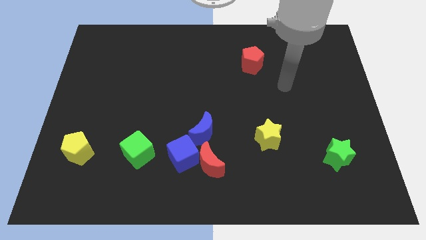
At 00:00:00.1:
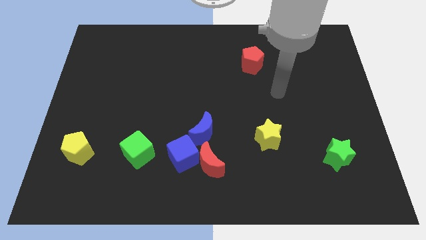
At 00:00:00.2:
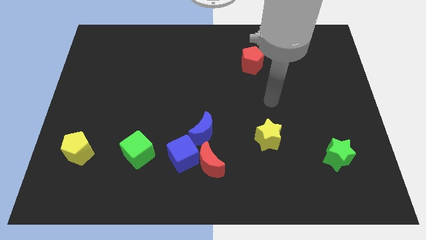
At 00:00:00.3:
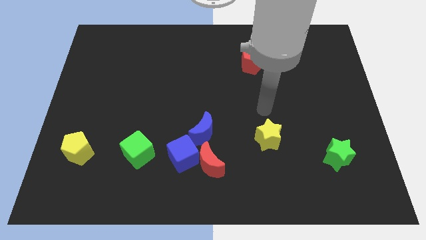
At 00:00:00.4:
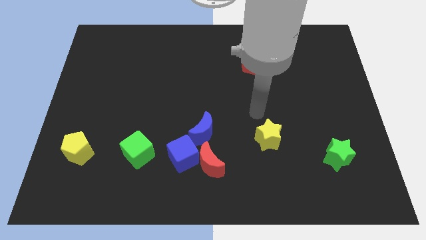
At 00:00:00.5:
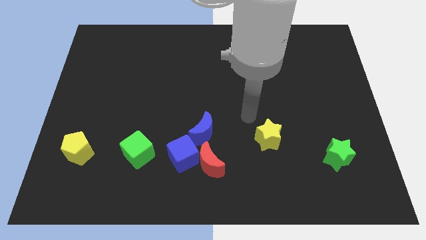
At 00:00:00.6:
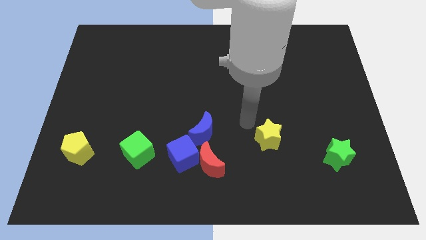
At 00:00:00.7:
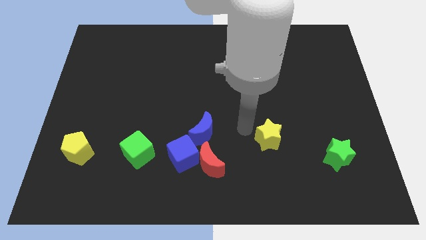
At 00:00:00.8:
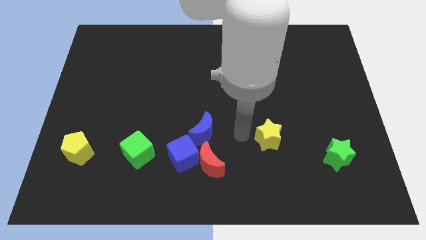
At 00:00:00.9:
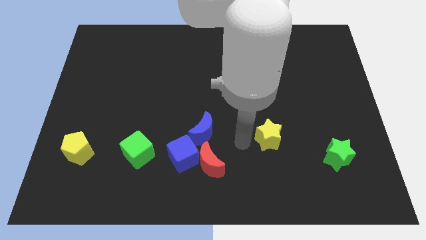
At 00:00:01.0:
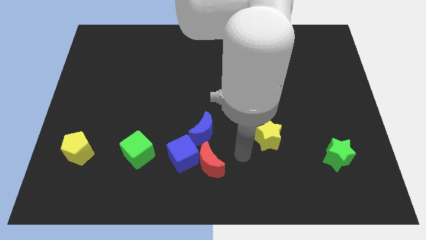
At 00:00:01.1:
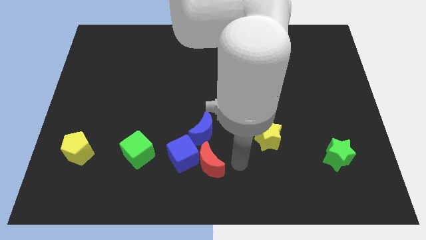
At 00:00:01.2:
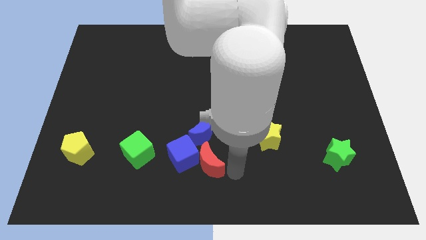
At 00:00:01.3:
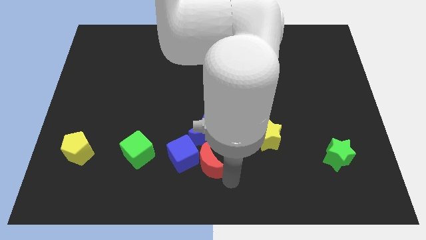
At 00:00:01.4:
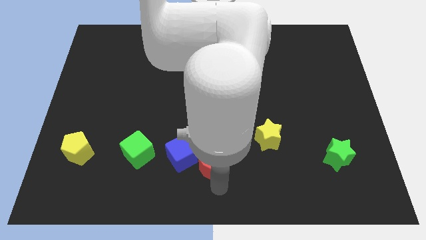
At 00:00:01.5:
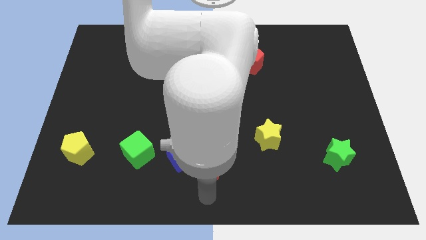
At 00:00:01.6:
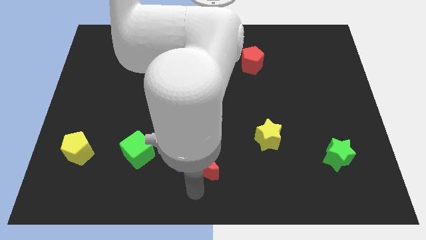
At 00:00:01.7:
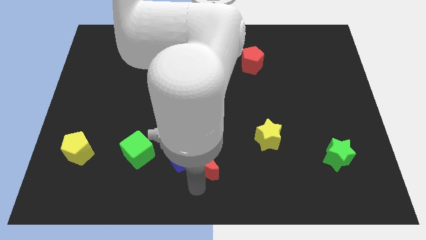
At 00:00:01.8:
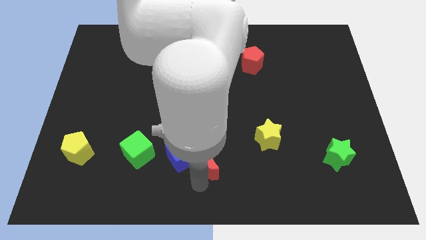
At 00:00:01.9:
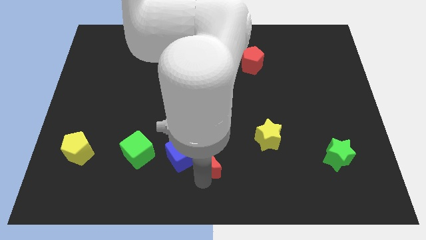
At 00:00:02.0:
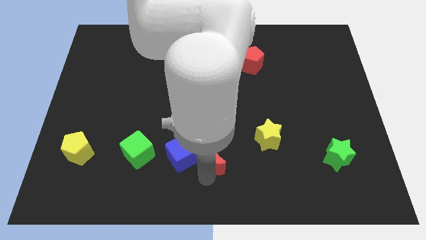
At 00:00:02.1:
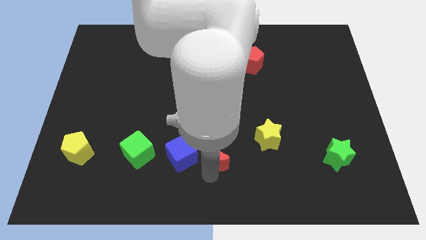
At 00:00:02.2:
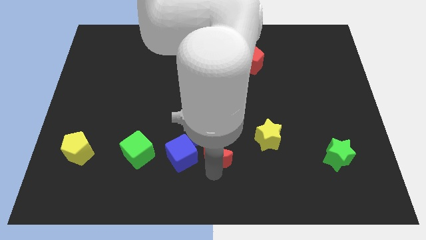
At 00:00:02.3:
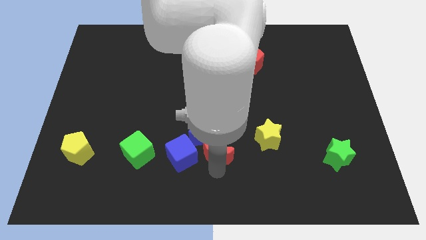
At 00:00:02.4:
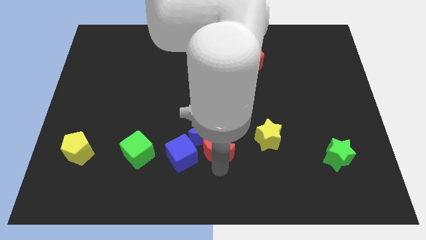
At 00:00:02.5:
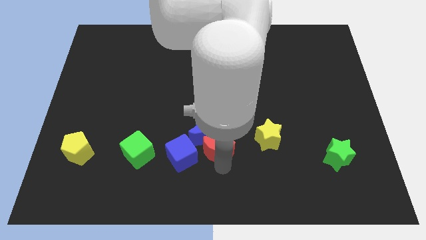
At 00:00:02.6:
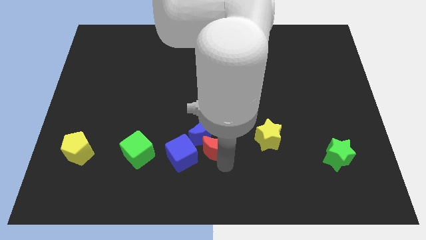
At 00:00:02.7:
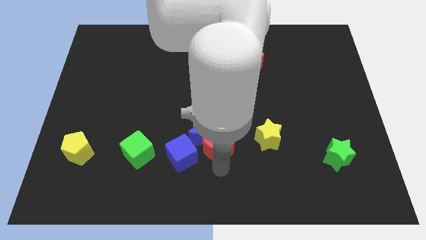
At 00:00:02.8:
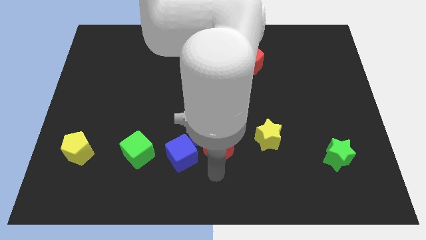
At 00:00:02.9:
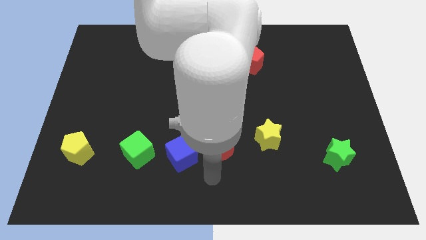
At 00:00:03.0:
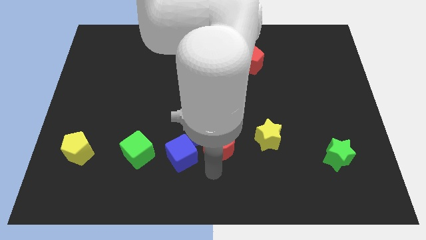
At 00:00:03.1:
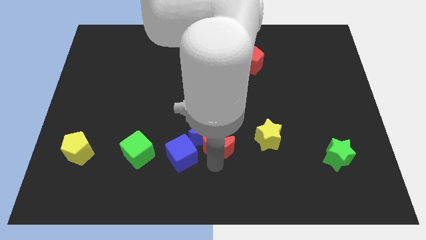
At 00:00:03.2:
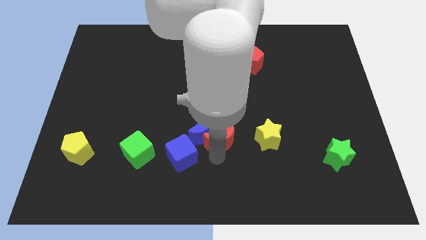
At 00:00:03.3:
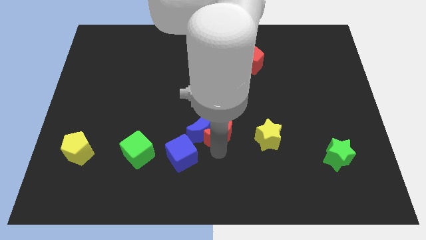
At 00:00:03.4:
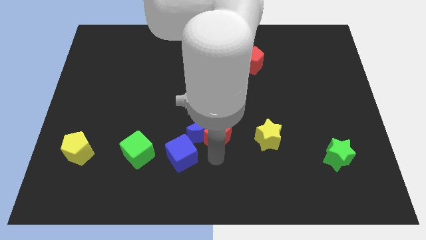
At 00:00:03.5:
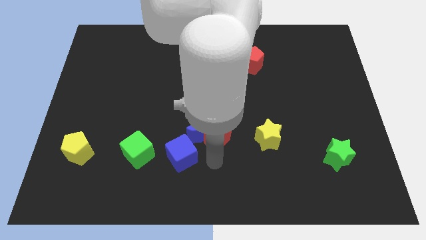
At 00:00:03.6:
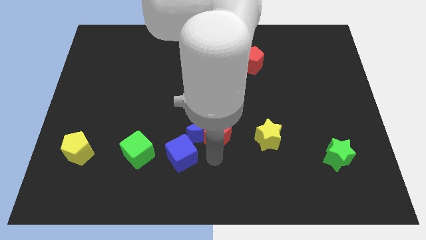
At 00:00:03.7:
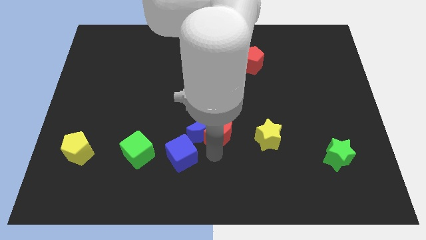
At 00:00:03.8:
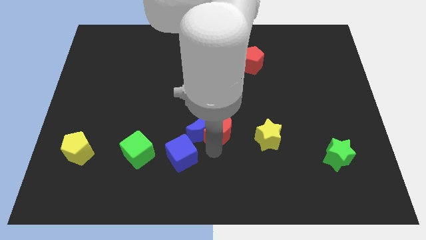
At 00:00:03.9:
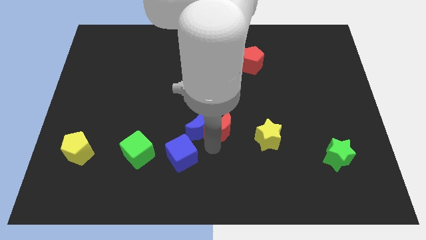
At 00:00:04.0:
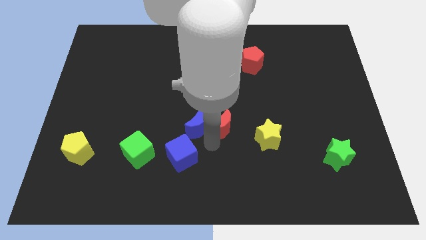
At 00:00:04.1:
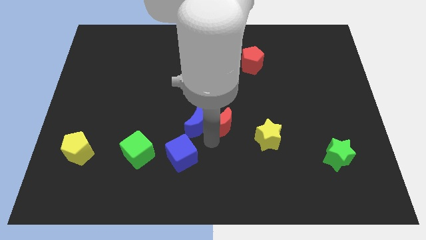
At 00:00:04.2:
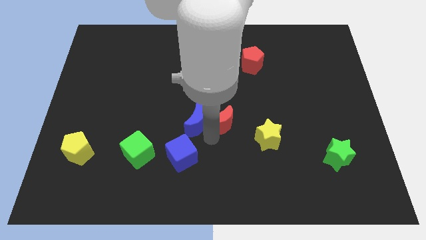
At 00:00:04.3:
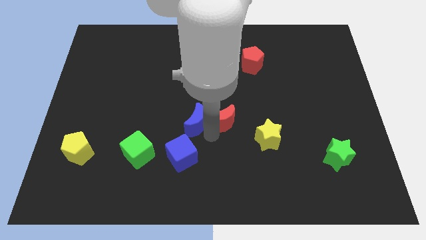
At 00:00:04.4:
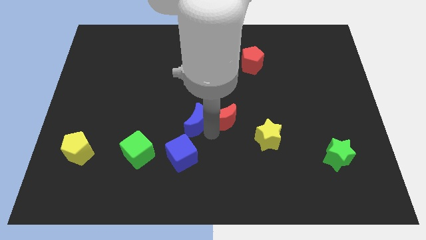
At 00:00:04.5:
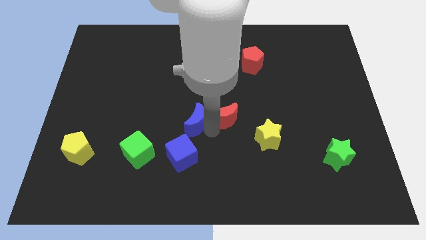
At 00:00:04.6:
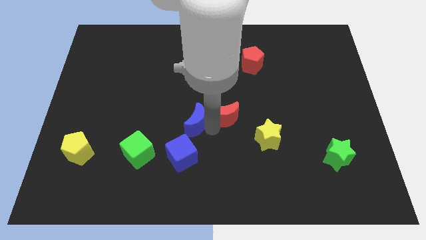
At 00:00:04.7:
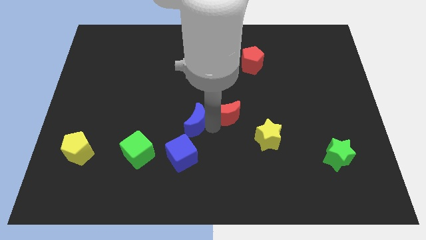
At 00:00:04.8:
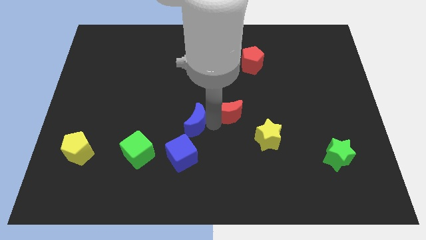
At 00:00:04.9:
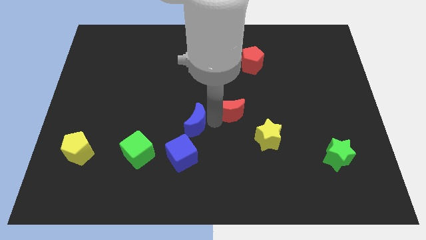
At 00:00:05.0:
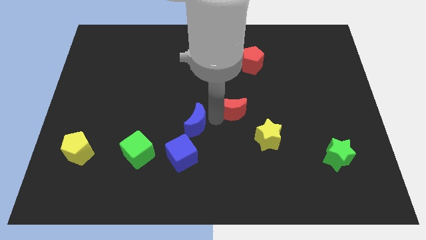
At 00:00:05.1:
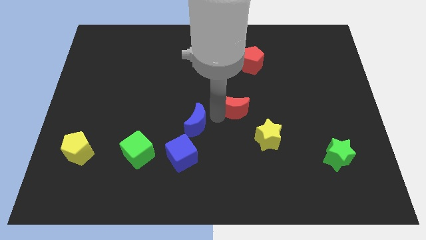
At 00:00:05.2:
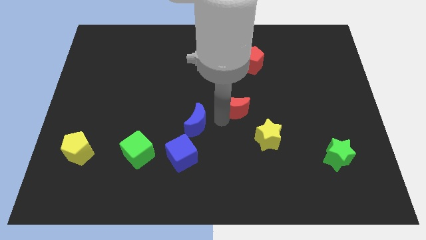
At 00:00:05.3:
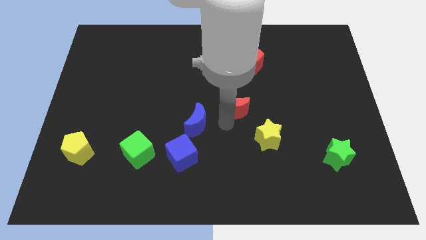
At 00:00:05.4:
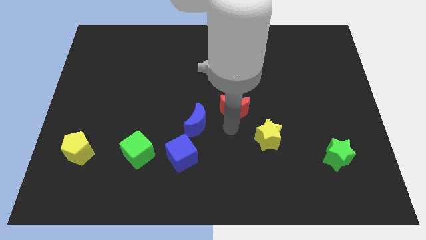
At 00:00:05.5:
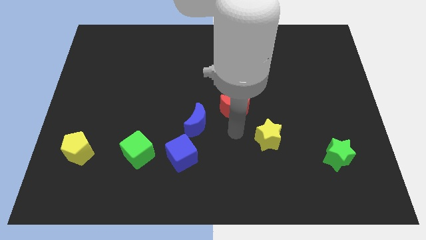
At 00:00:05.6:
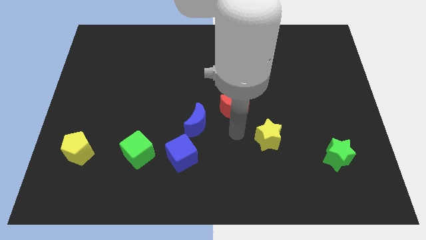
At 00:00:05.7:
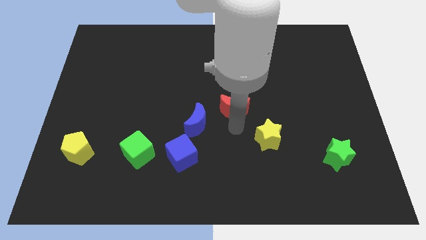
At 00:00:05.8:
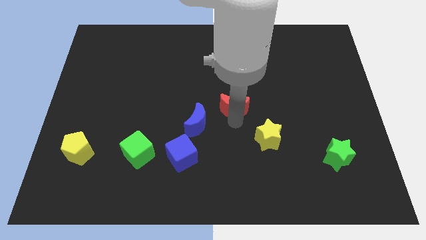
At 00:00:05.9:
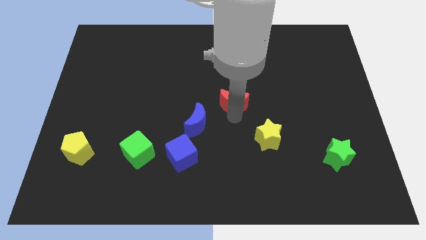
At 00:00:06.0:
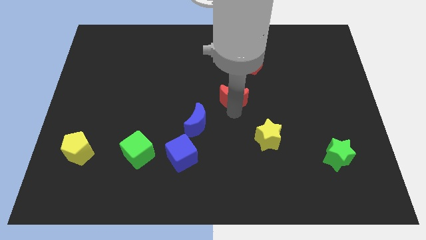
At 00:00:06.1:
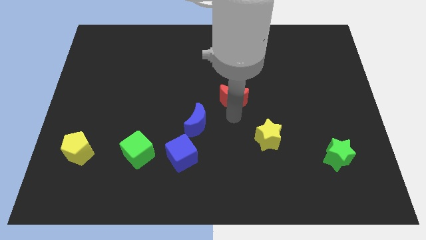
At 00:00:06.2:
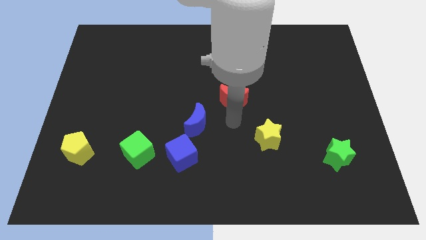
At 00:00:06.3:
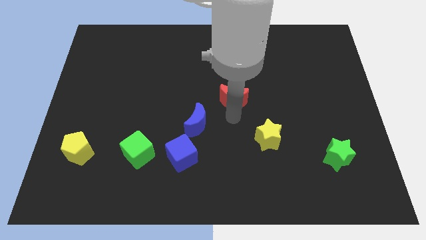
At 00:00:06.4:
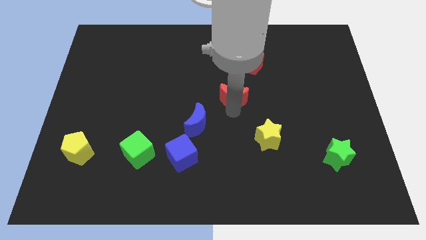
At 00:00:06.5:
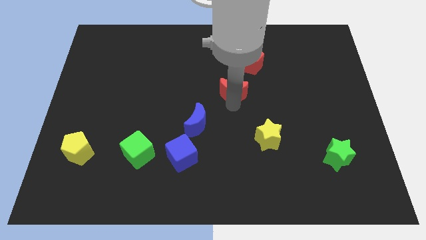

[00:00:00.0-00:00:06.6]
put the red moon to the bottom left of the red pentagon

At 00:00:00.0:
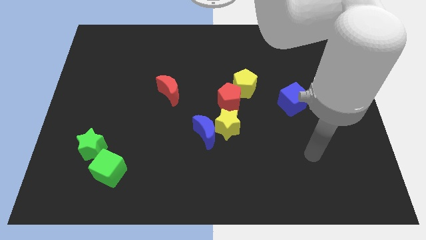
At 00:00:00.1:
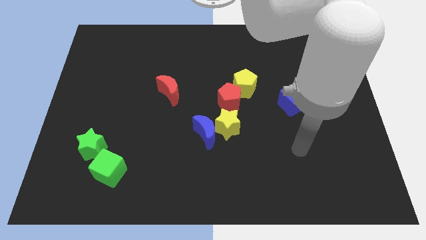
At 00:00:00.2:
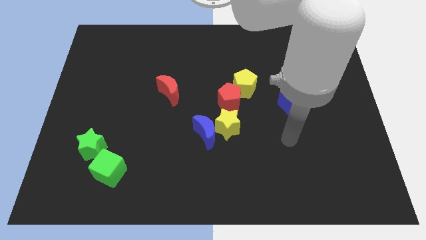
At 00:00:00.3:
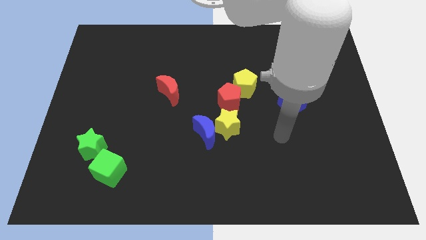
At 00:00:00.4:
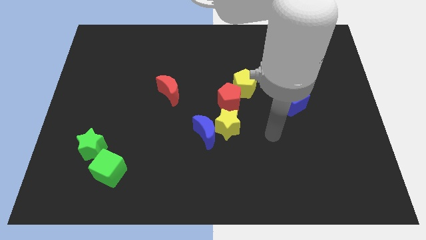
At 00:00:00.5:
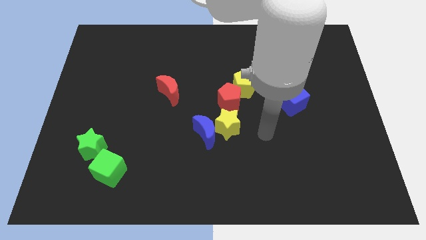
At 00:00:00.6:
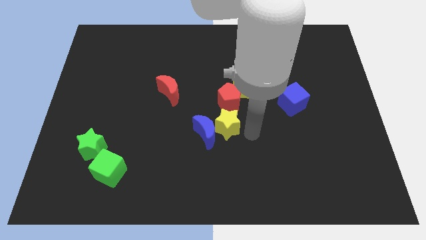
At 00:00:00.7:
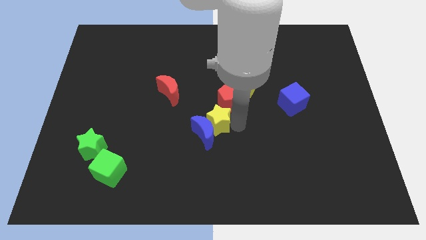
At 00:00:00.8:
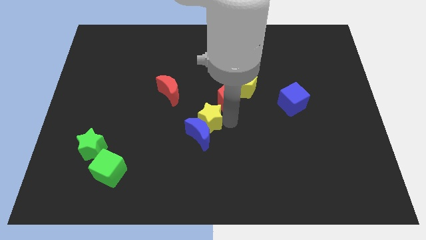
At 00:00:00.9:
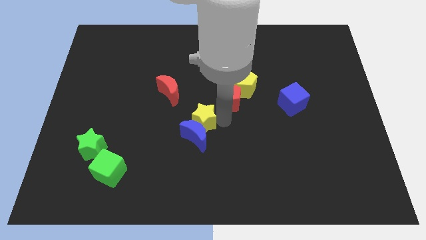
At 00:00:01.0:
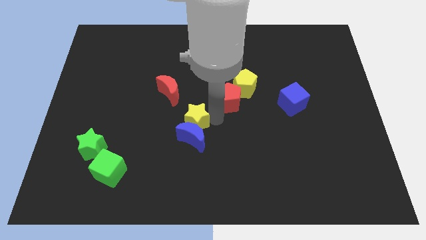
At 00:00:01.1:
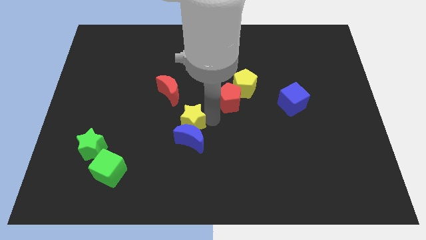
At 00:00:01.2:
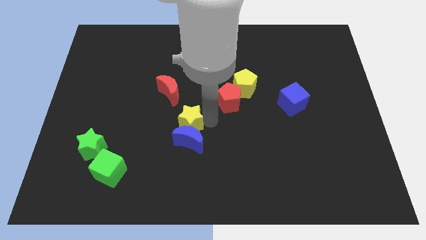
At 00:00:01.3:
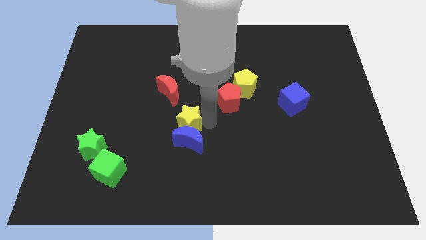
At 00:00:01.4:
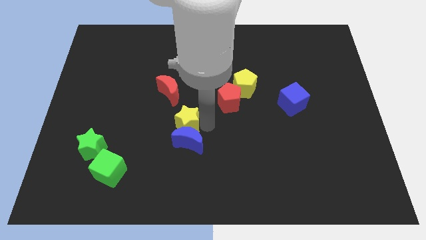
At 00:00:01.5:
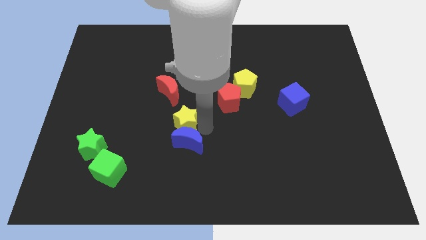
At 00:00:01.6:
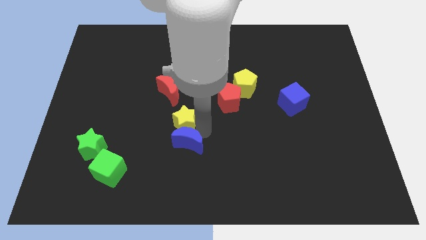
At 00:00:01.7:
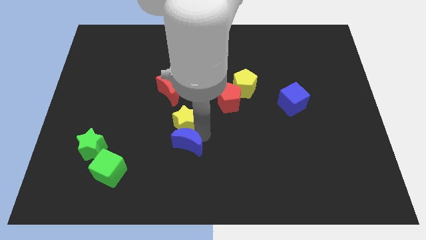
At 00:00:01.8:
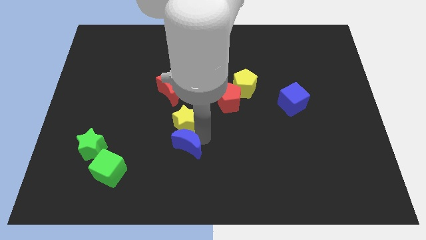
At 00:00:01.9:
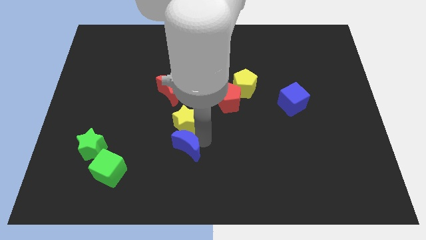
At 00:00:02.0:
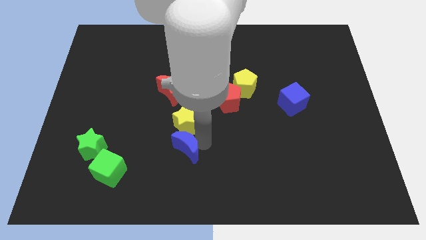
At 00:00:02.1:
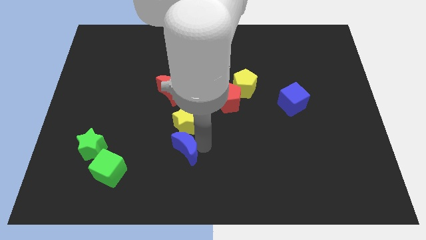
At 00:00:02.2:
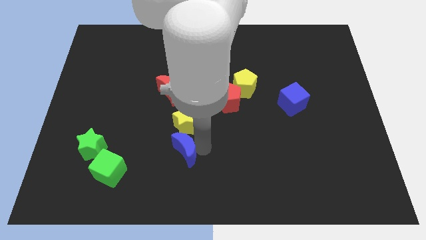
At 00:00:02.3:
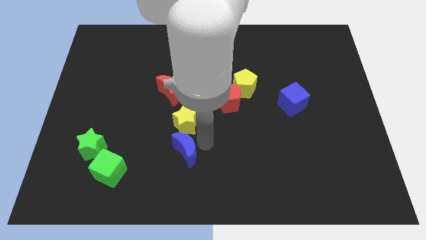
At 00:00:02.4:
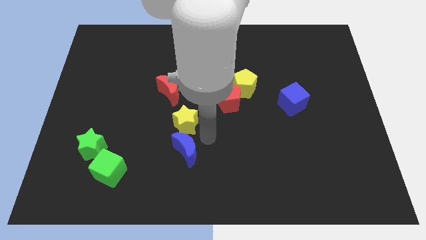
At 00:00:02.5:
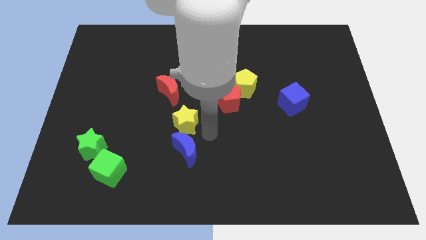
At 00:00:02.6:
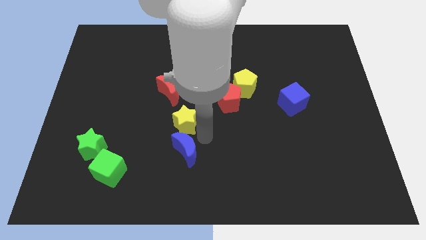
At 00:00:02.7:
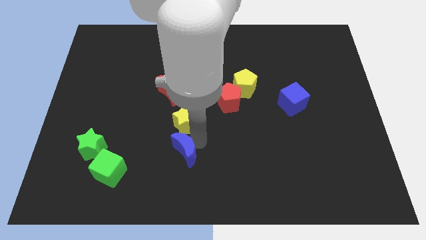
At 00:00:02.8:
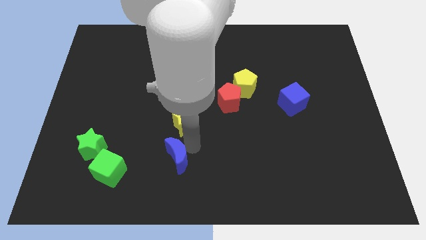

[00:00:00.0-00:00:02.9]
push the blue moon to the right of the green cube
